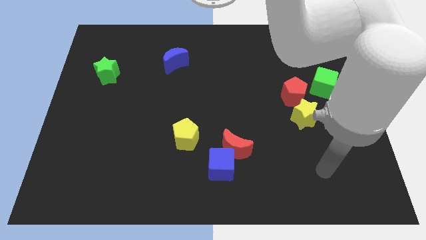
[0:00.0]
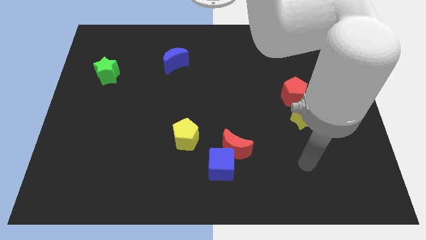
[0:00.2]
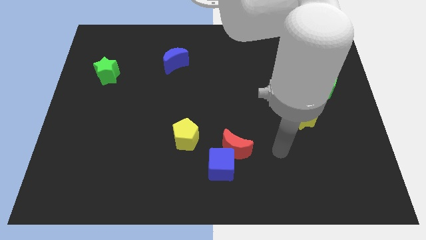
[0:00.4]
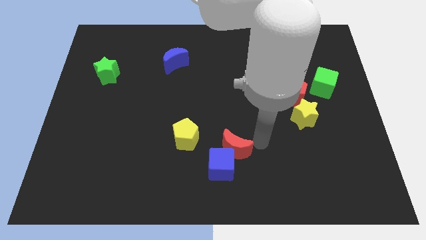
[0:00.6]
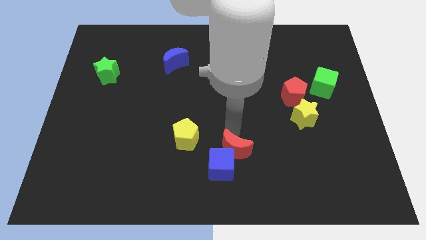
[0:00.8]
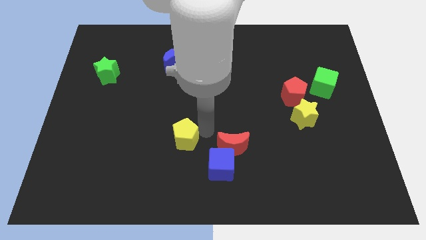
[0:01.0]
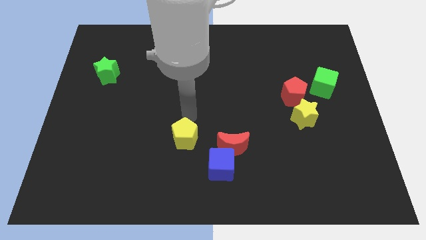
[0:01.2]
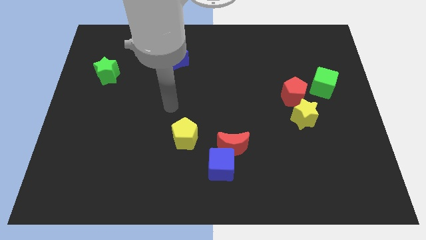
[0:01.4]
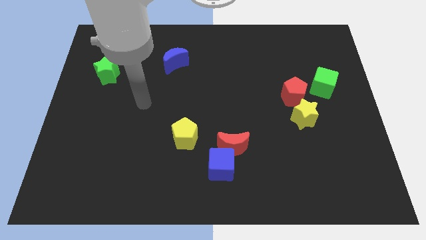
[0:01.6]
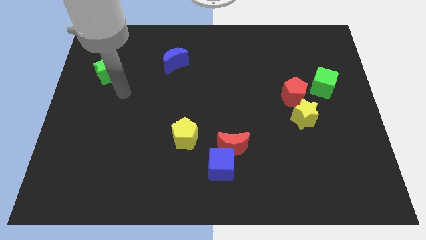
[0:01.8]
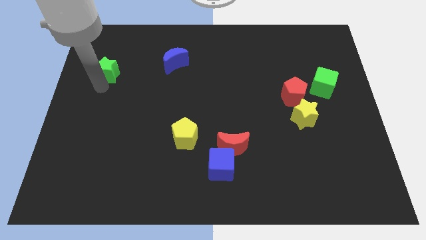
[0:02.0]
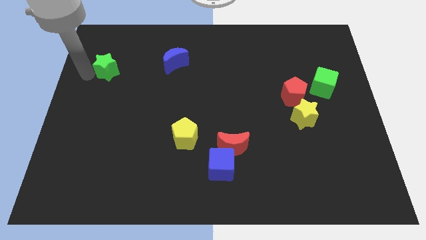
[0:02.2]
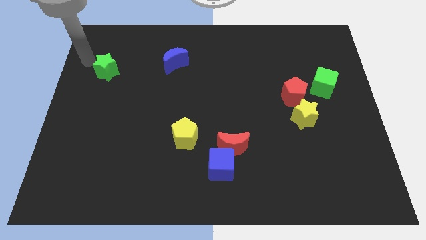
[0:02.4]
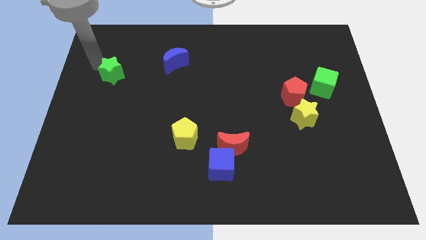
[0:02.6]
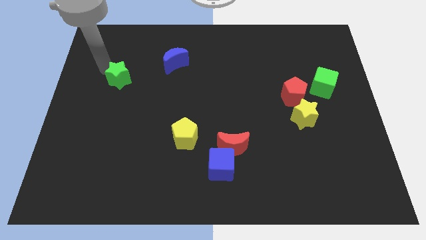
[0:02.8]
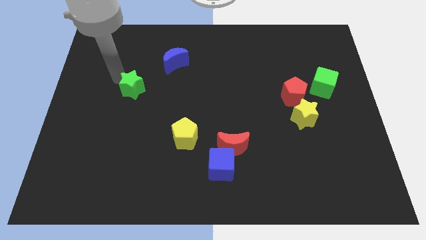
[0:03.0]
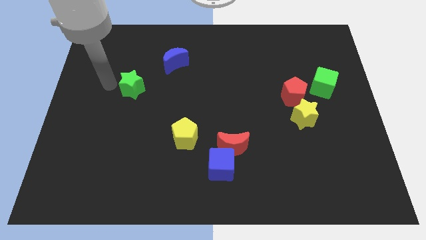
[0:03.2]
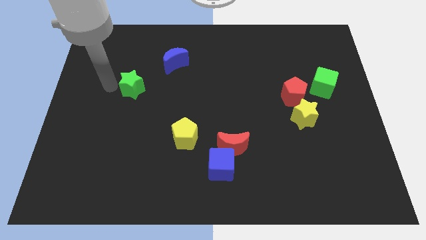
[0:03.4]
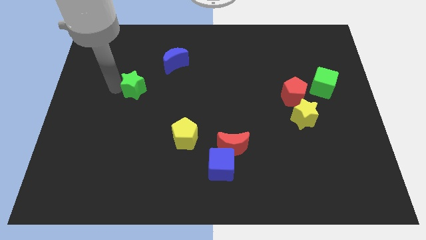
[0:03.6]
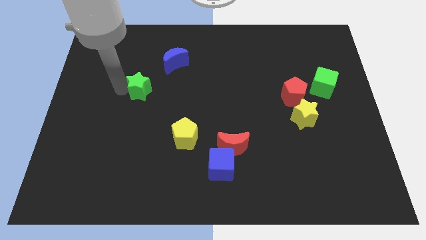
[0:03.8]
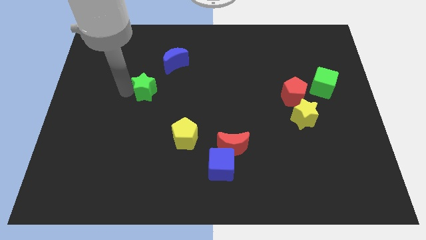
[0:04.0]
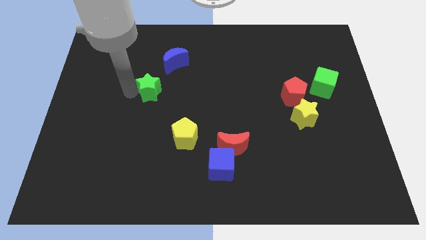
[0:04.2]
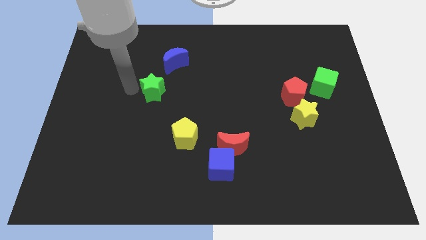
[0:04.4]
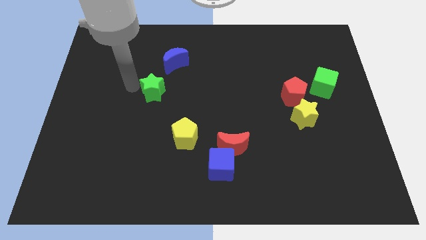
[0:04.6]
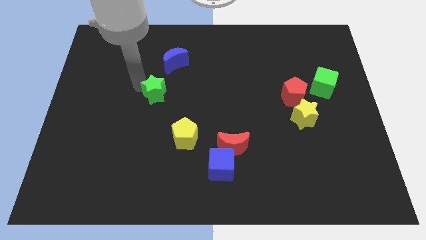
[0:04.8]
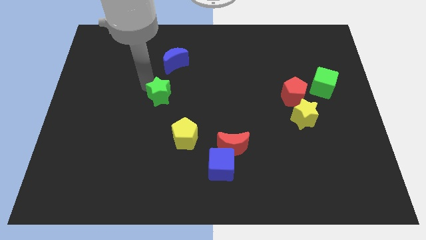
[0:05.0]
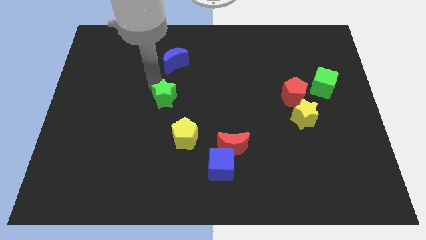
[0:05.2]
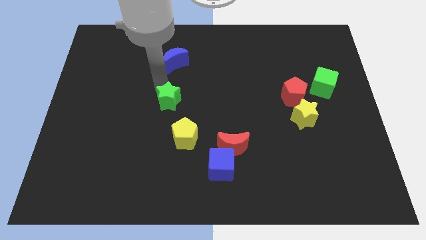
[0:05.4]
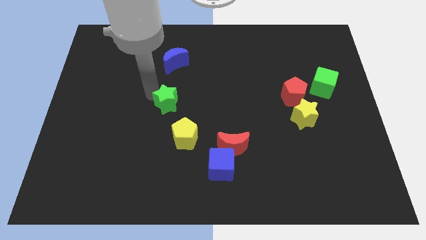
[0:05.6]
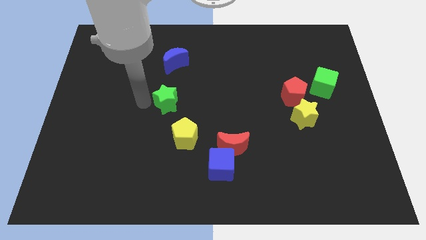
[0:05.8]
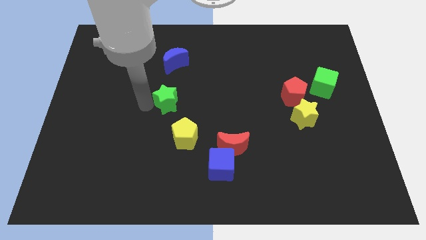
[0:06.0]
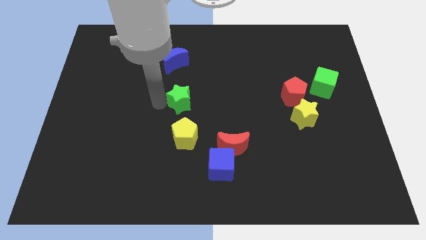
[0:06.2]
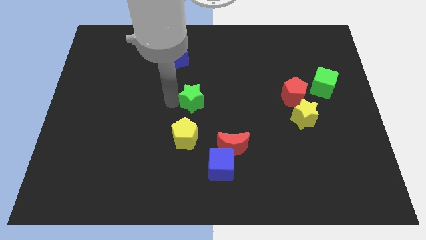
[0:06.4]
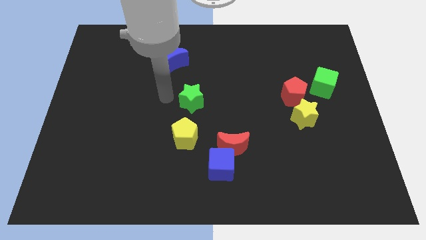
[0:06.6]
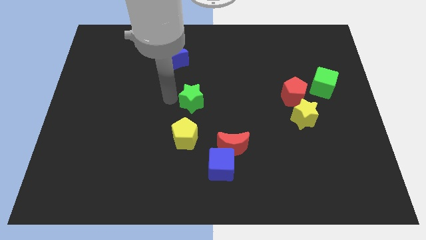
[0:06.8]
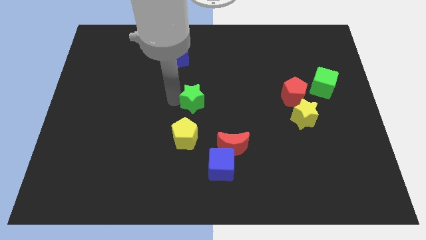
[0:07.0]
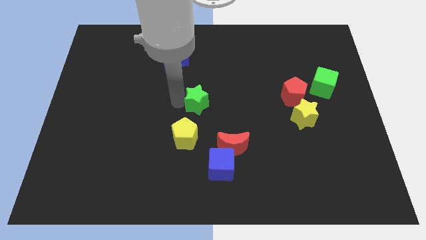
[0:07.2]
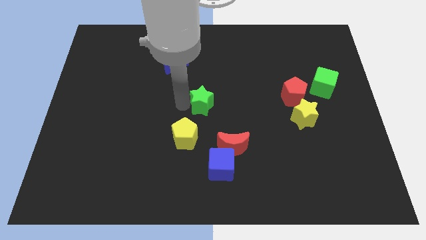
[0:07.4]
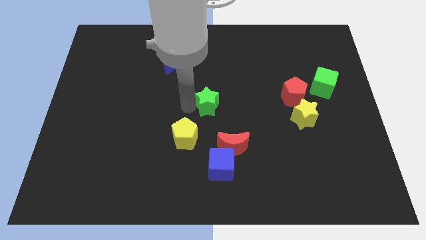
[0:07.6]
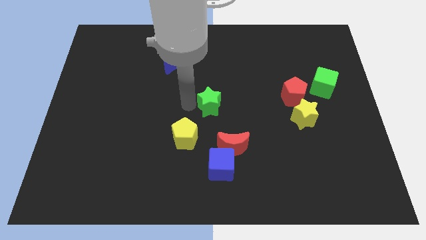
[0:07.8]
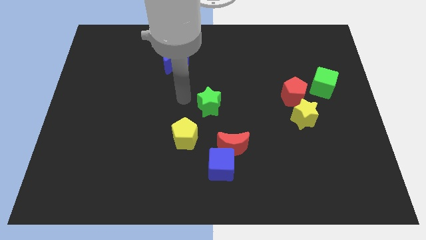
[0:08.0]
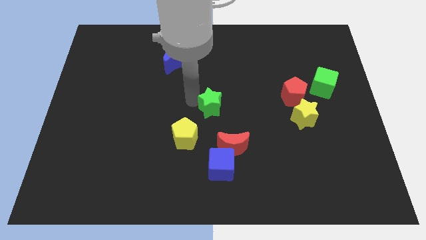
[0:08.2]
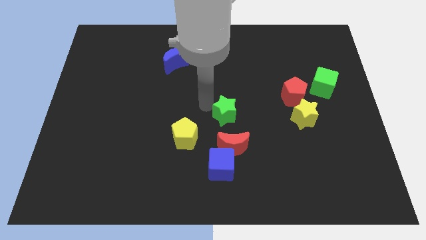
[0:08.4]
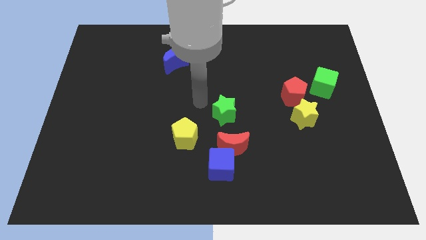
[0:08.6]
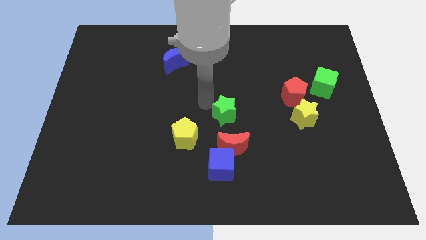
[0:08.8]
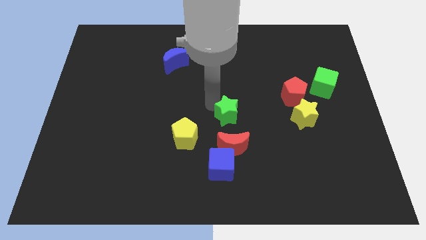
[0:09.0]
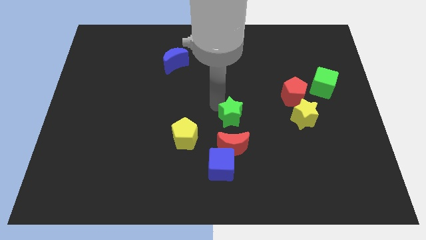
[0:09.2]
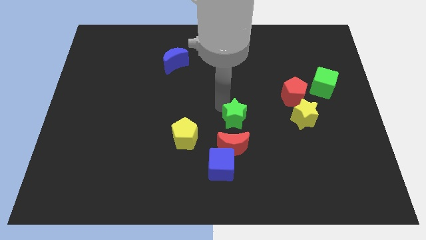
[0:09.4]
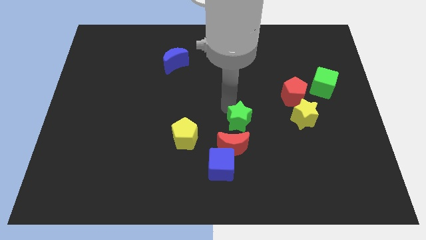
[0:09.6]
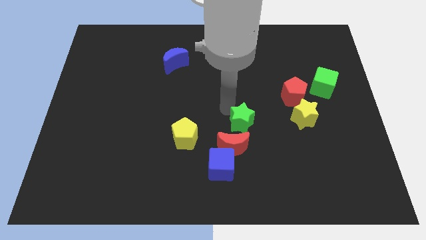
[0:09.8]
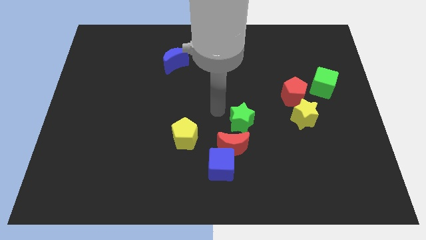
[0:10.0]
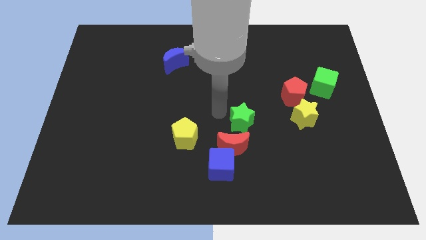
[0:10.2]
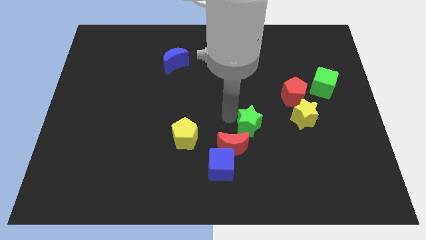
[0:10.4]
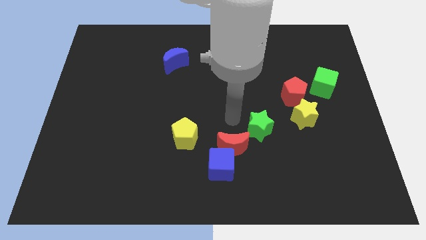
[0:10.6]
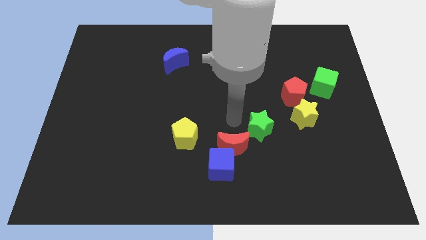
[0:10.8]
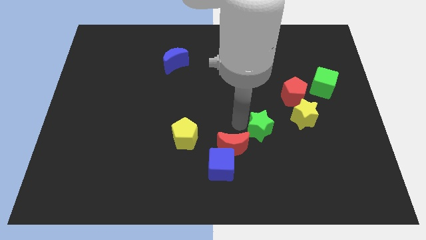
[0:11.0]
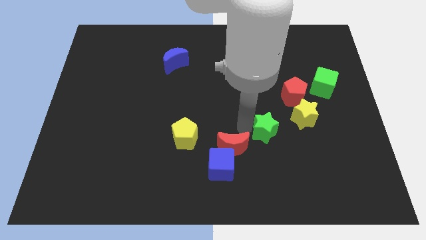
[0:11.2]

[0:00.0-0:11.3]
push the green star diagonally down and to the left of the yellow star

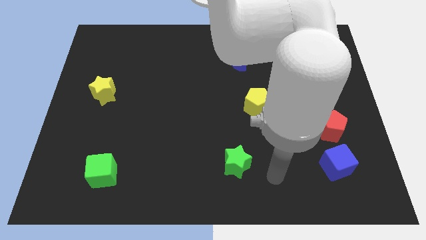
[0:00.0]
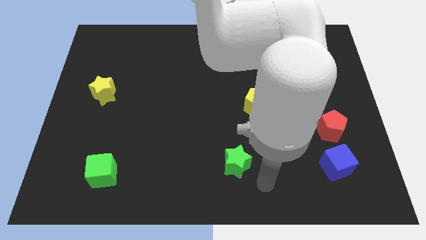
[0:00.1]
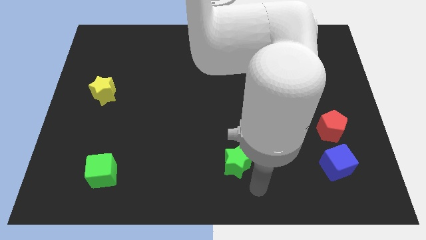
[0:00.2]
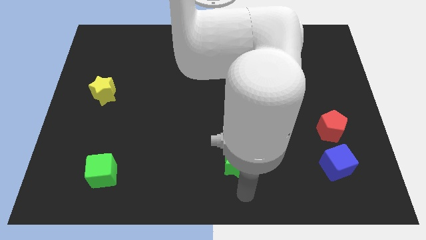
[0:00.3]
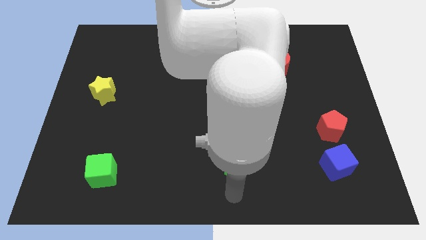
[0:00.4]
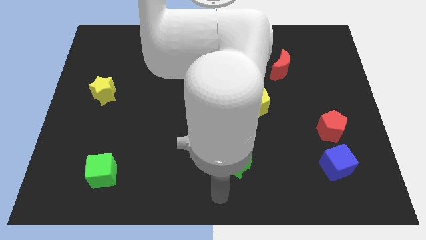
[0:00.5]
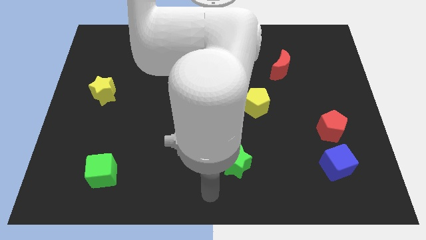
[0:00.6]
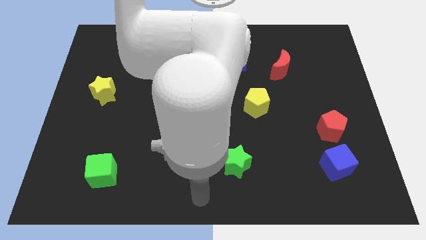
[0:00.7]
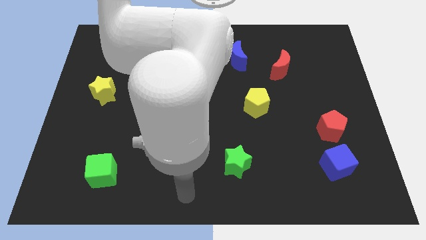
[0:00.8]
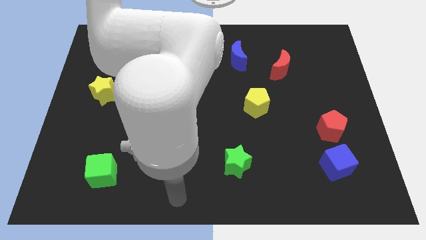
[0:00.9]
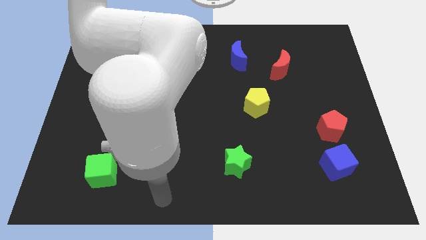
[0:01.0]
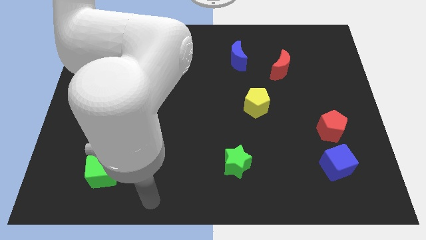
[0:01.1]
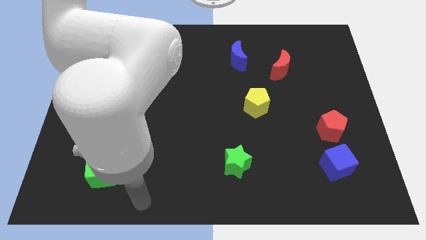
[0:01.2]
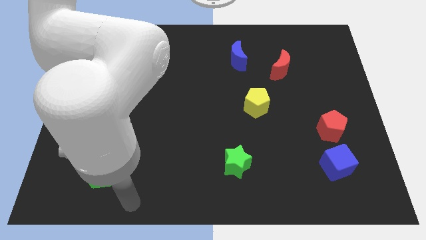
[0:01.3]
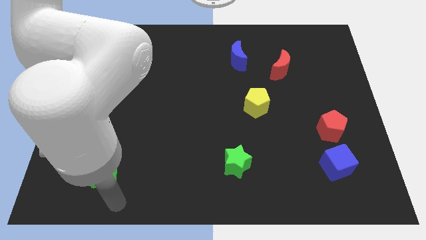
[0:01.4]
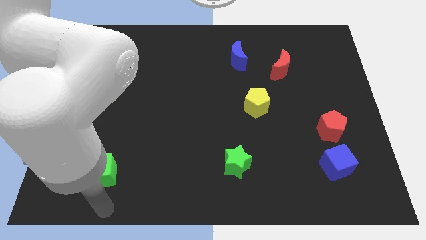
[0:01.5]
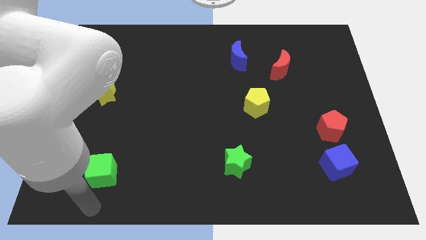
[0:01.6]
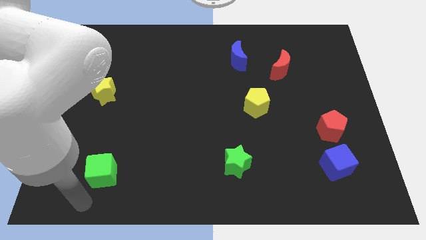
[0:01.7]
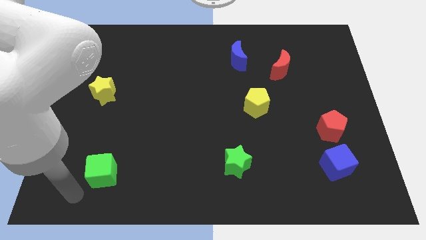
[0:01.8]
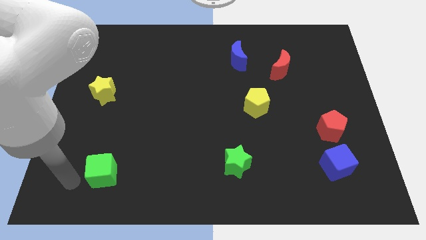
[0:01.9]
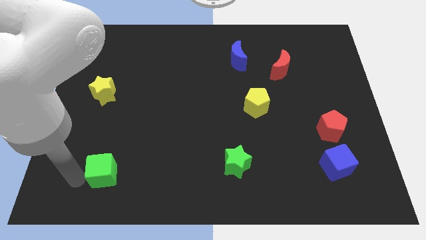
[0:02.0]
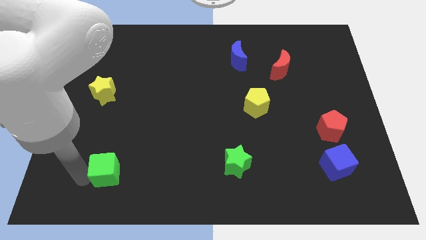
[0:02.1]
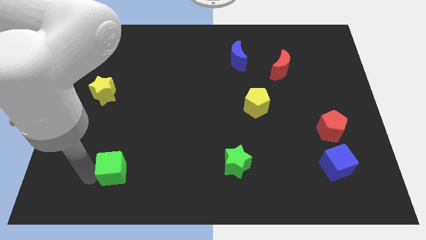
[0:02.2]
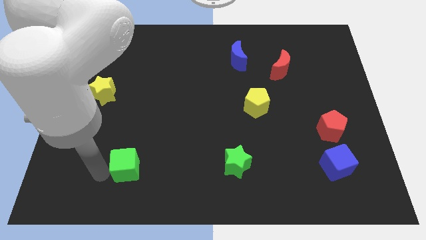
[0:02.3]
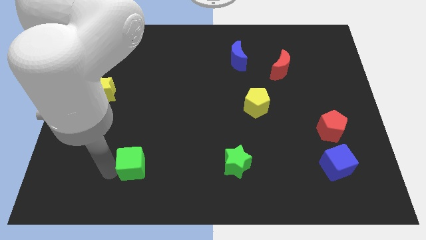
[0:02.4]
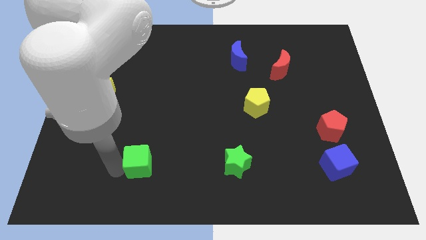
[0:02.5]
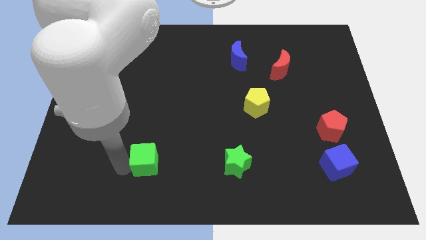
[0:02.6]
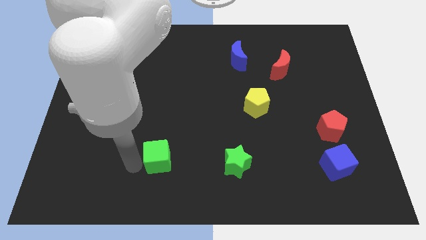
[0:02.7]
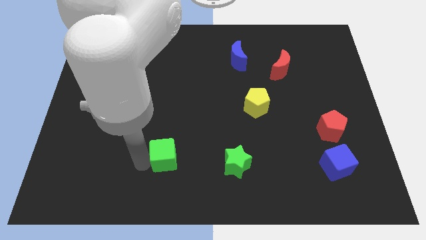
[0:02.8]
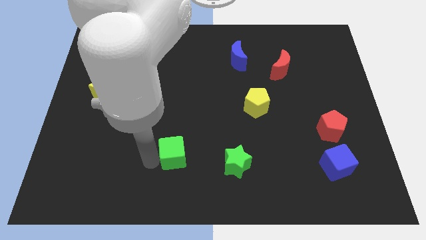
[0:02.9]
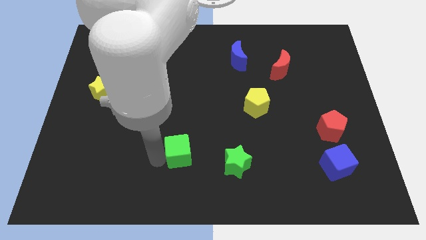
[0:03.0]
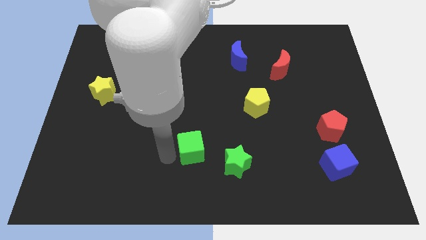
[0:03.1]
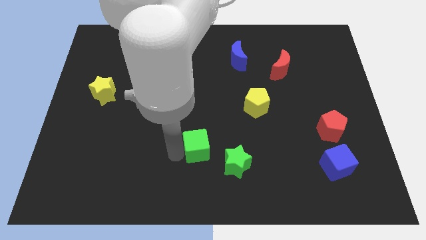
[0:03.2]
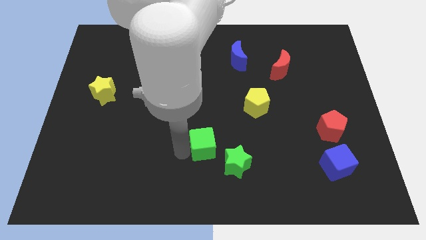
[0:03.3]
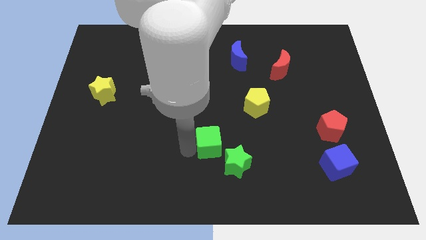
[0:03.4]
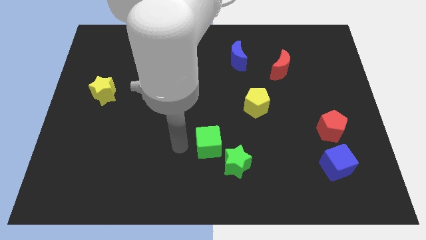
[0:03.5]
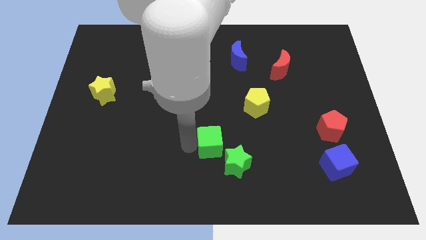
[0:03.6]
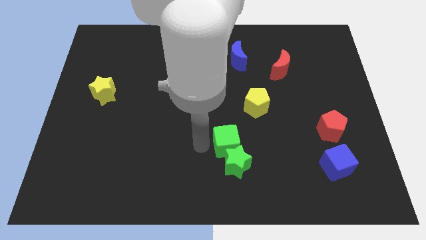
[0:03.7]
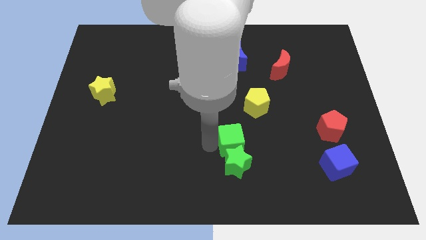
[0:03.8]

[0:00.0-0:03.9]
push the green cube to the top right of the green star
